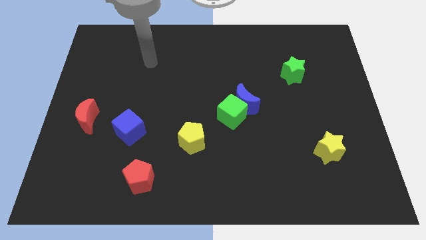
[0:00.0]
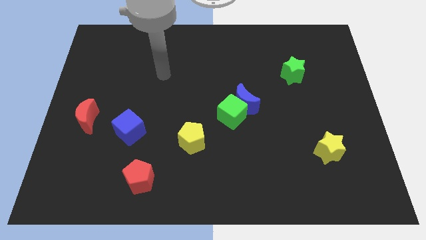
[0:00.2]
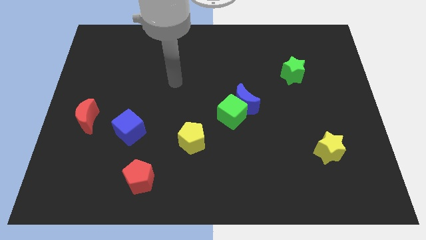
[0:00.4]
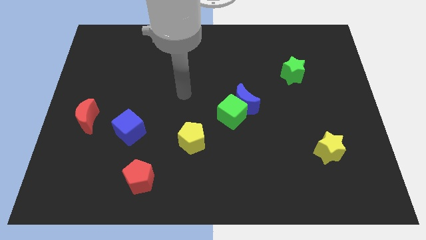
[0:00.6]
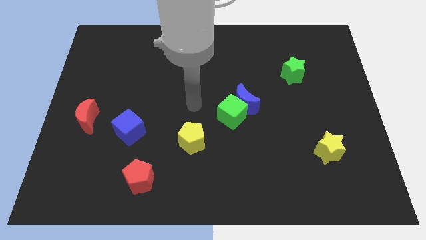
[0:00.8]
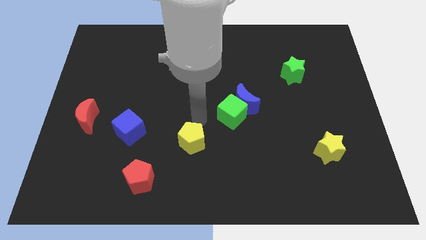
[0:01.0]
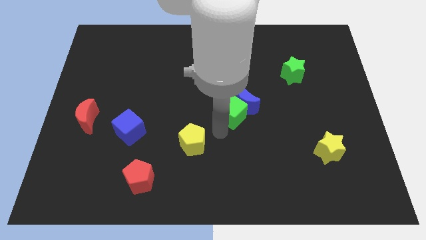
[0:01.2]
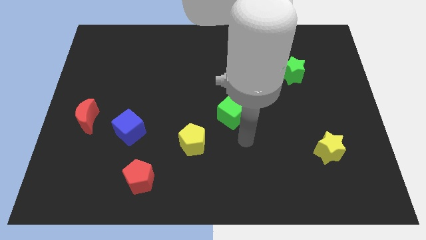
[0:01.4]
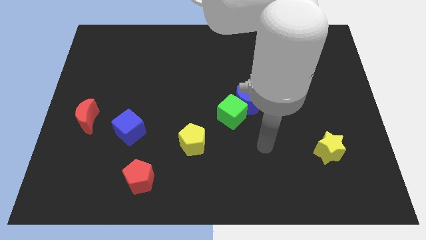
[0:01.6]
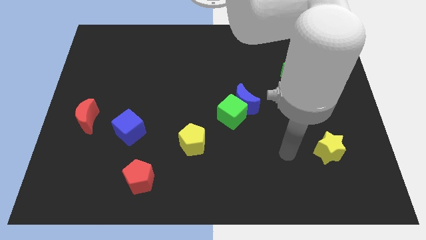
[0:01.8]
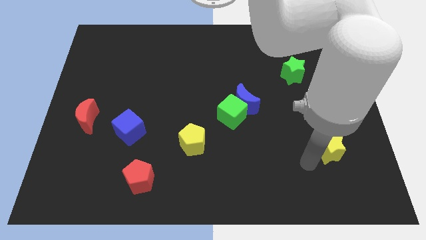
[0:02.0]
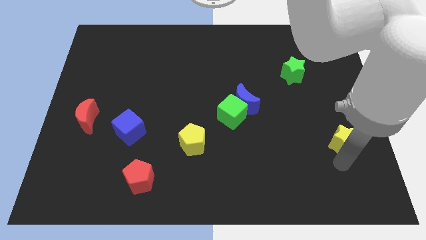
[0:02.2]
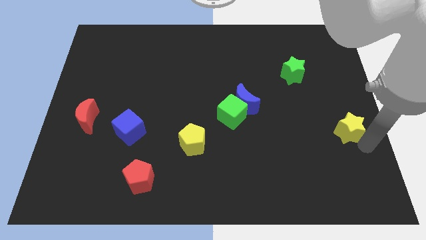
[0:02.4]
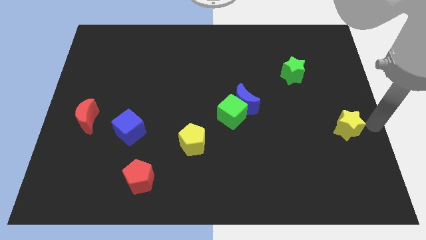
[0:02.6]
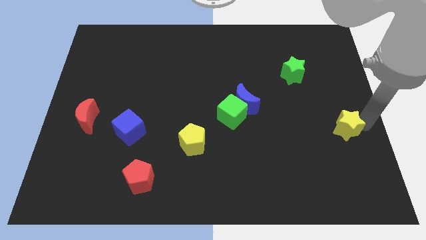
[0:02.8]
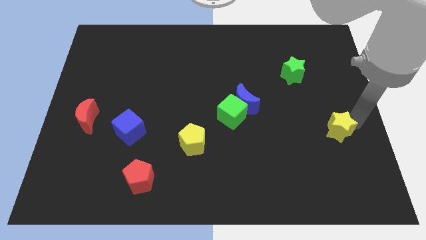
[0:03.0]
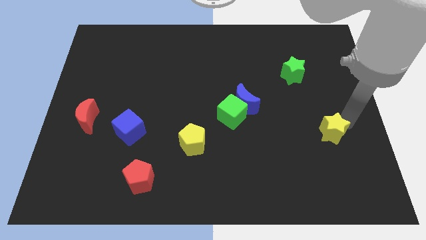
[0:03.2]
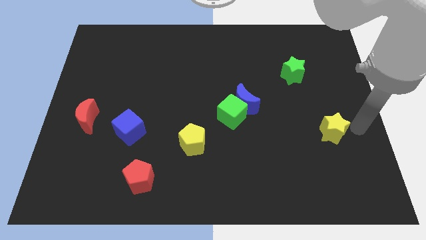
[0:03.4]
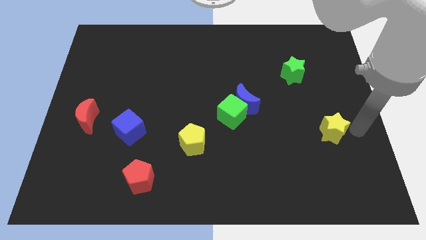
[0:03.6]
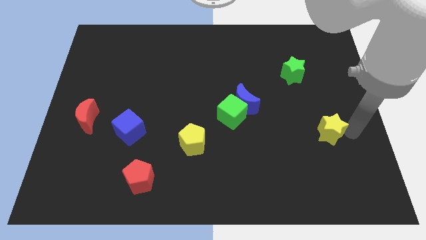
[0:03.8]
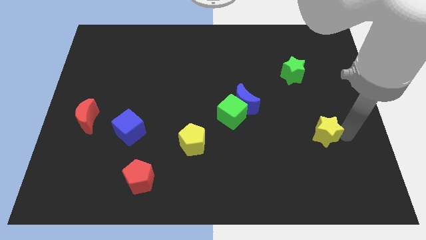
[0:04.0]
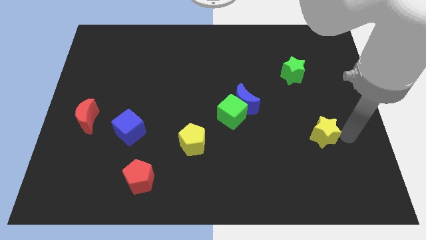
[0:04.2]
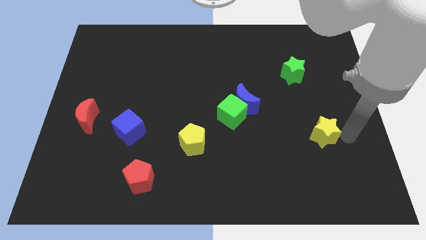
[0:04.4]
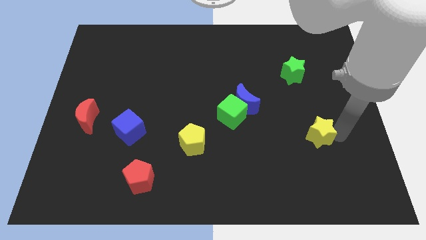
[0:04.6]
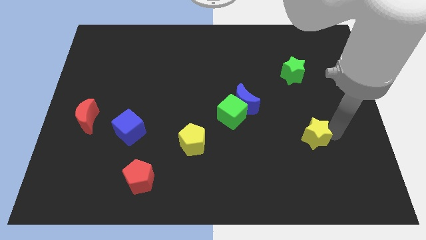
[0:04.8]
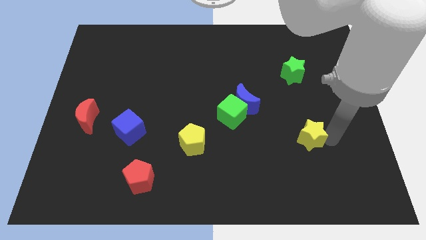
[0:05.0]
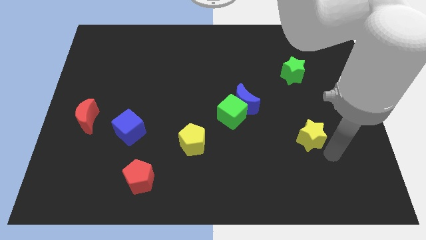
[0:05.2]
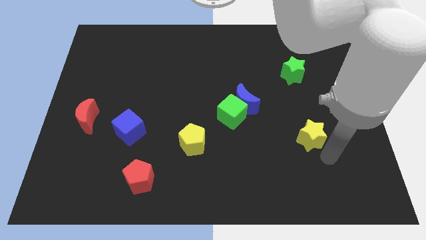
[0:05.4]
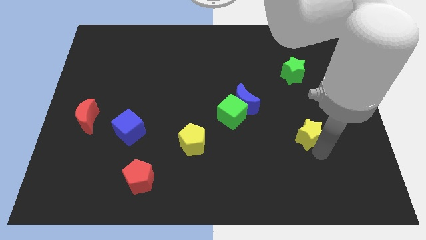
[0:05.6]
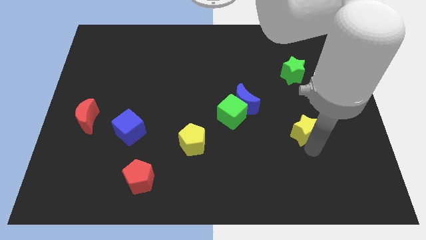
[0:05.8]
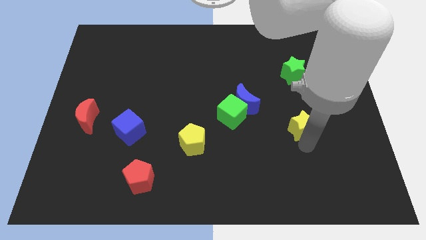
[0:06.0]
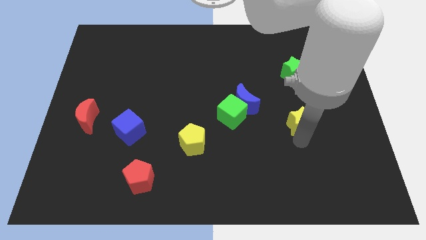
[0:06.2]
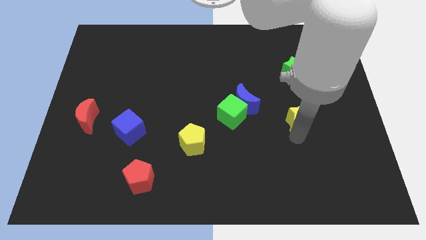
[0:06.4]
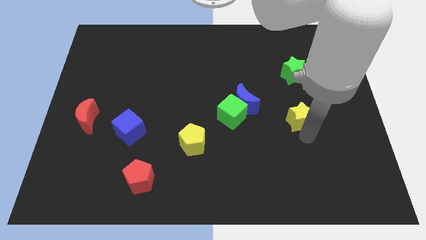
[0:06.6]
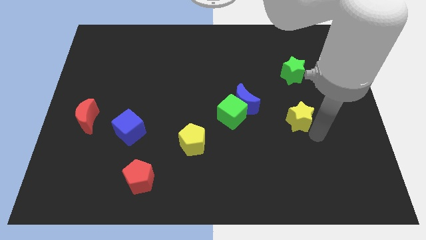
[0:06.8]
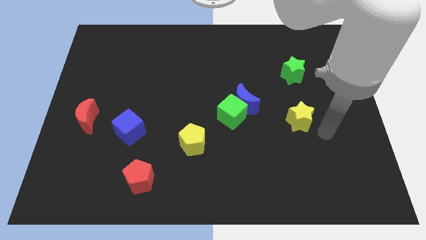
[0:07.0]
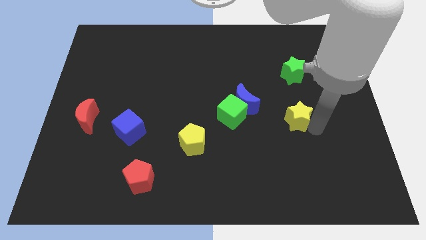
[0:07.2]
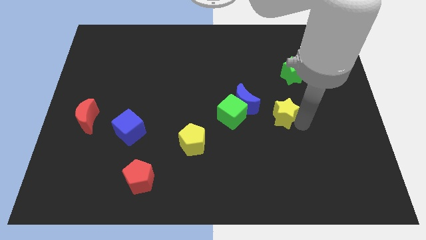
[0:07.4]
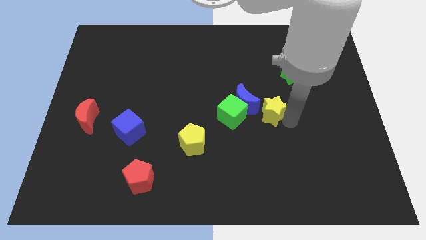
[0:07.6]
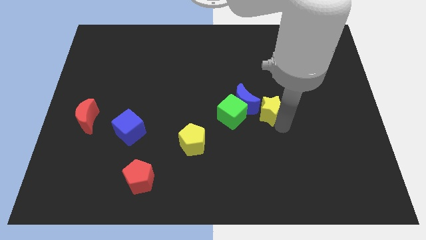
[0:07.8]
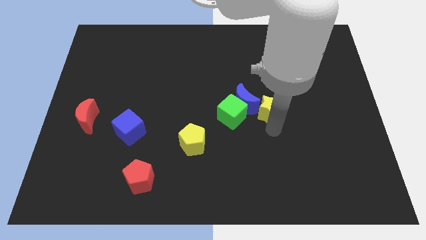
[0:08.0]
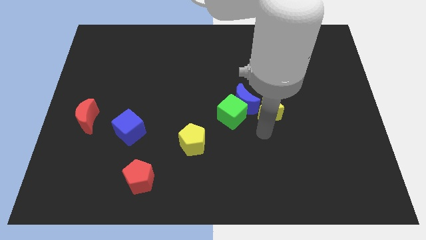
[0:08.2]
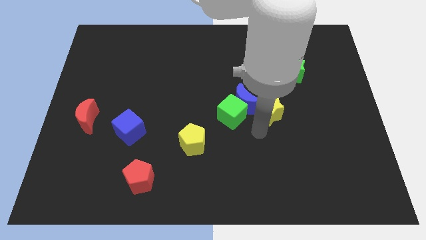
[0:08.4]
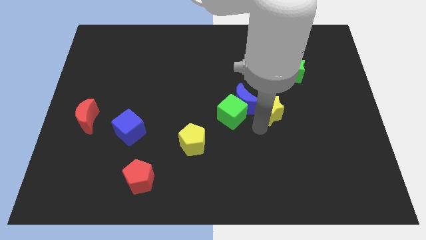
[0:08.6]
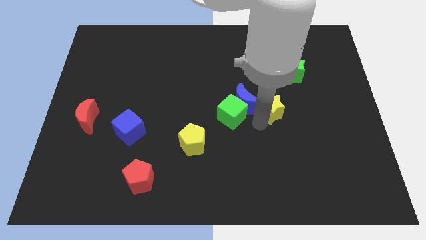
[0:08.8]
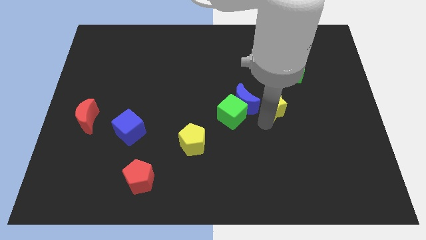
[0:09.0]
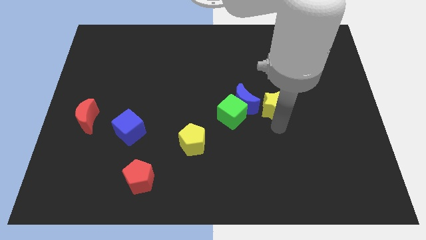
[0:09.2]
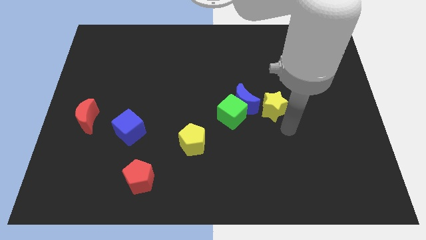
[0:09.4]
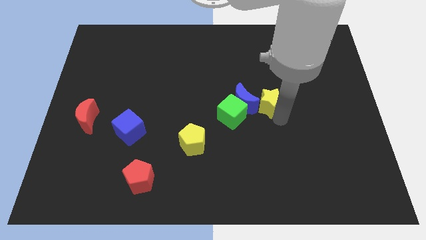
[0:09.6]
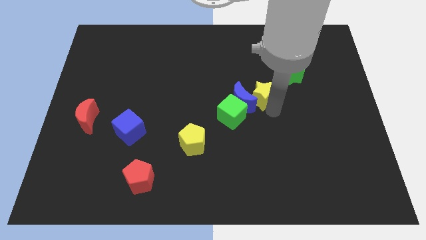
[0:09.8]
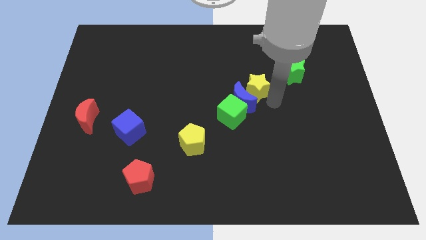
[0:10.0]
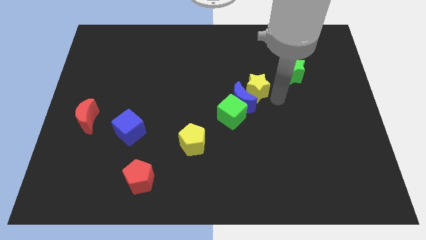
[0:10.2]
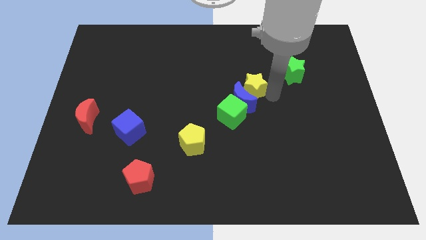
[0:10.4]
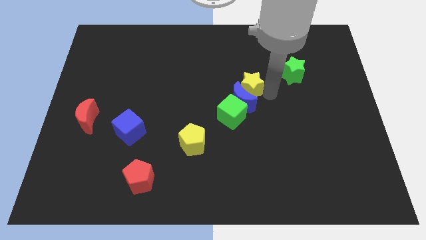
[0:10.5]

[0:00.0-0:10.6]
push the yellow star to the top of the green cube

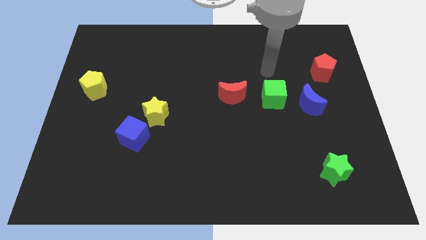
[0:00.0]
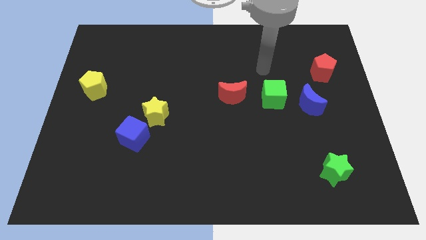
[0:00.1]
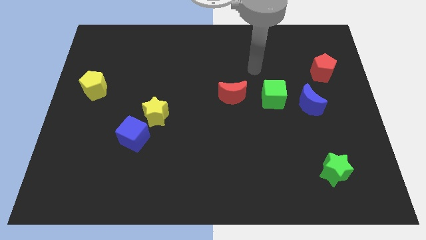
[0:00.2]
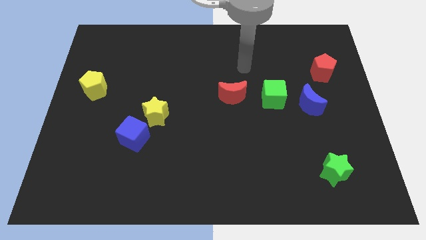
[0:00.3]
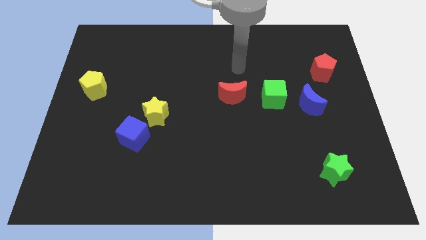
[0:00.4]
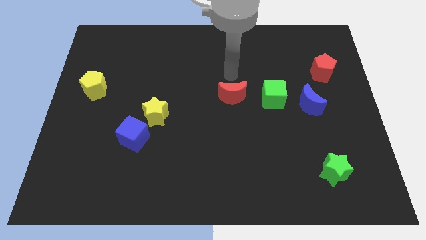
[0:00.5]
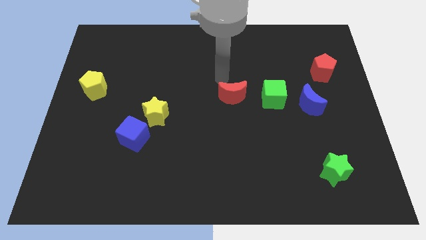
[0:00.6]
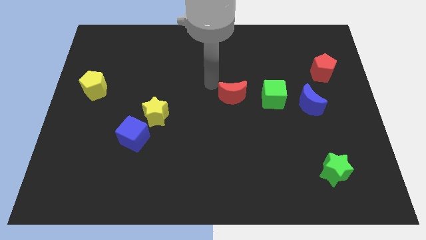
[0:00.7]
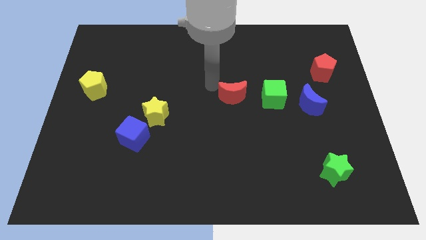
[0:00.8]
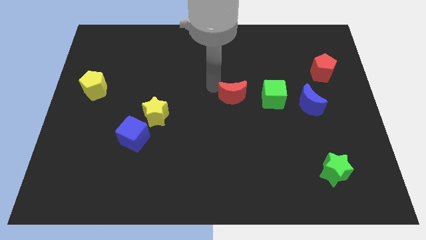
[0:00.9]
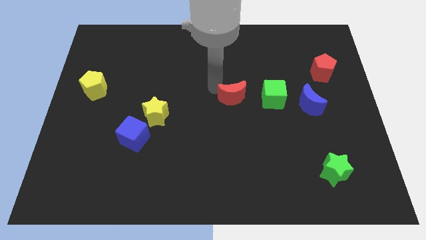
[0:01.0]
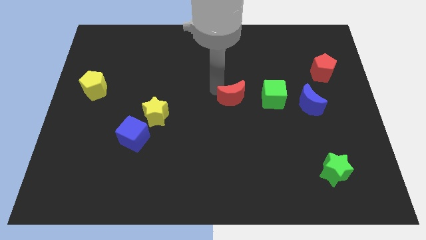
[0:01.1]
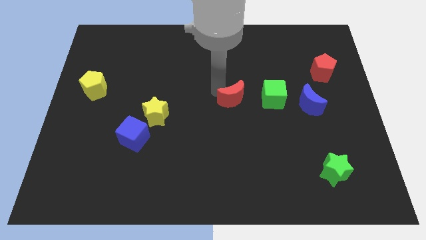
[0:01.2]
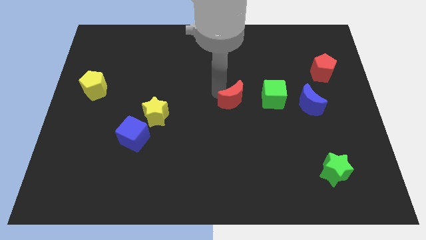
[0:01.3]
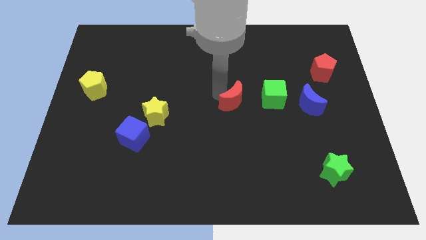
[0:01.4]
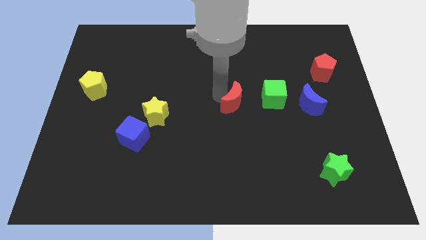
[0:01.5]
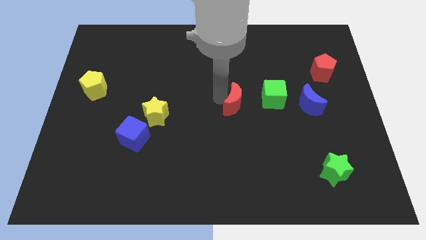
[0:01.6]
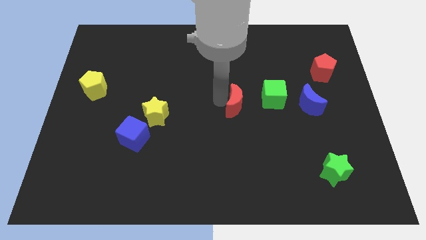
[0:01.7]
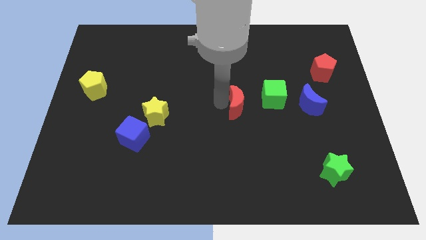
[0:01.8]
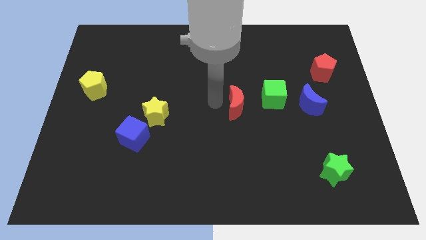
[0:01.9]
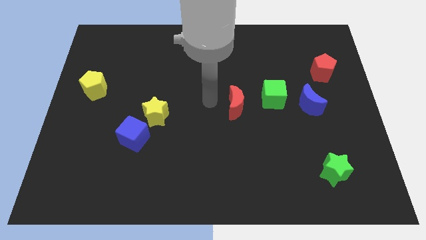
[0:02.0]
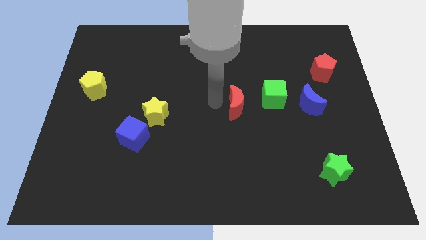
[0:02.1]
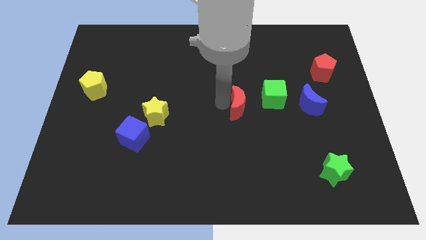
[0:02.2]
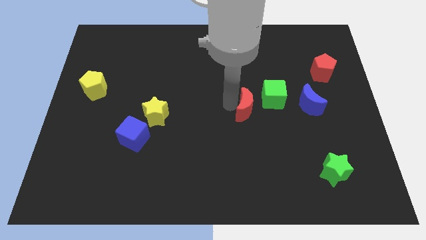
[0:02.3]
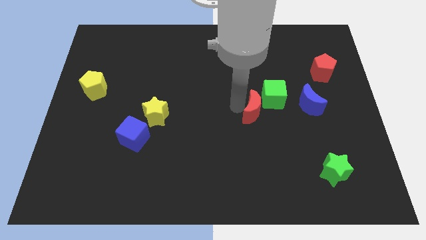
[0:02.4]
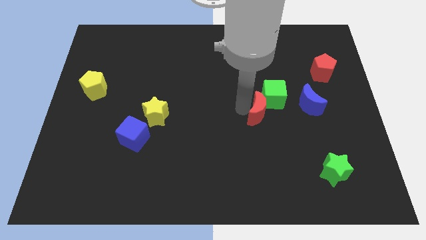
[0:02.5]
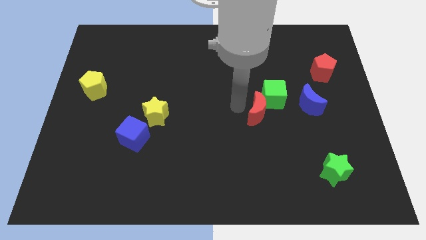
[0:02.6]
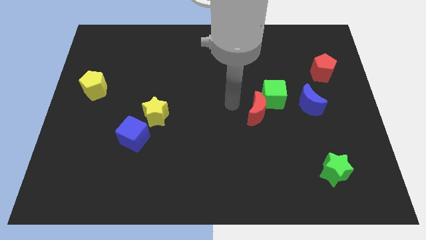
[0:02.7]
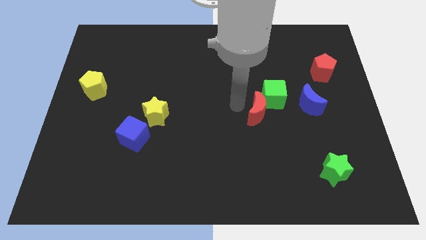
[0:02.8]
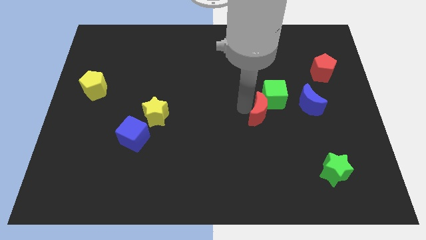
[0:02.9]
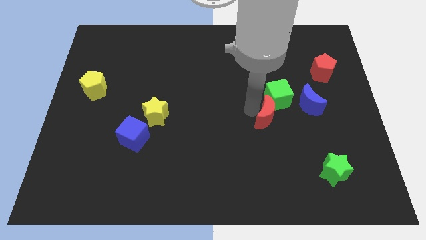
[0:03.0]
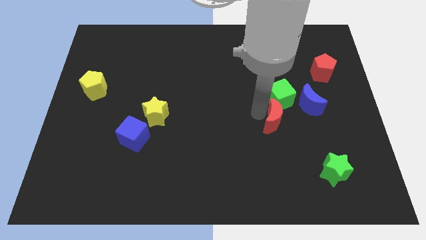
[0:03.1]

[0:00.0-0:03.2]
put the red moon diagonally down and to the left of the blue moon
